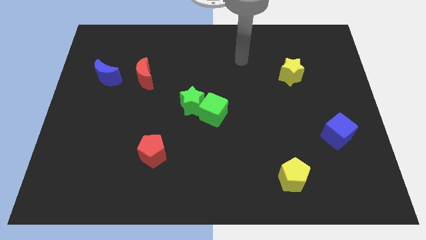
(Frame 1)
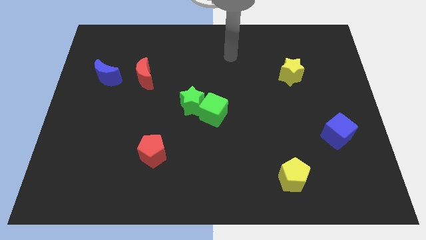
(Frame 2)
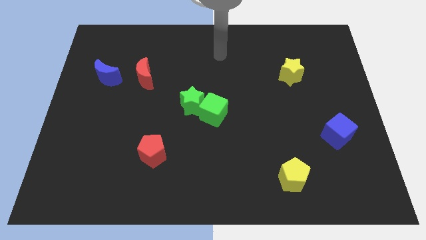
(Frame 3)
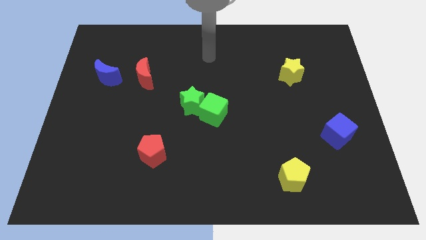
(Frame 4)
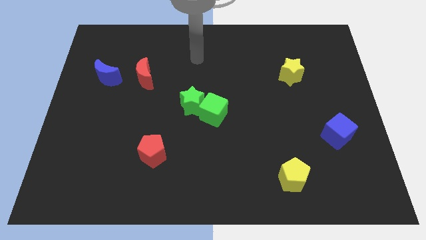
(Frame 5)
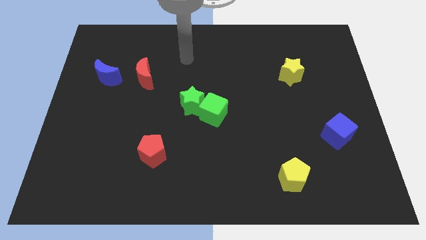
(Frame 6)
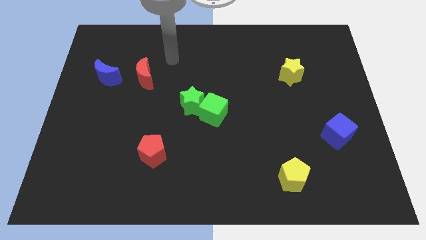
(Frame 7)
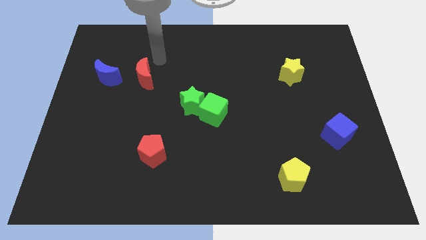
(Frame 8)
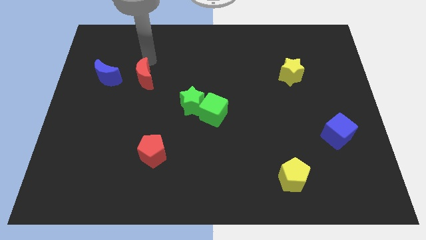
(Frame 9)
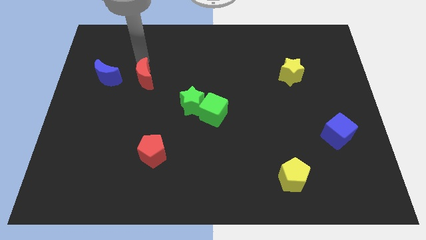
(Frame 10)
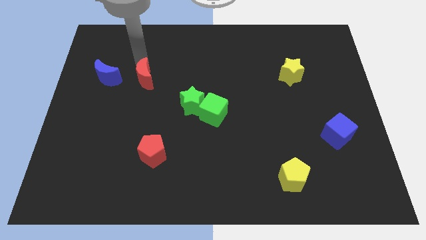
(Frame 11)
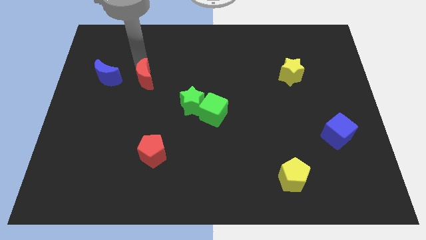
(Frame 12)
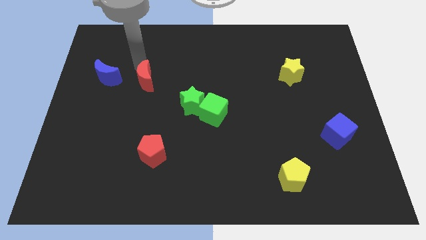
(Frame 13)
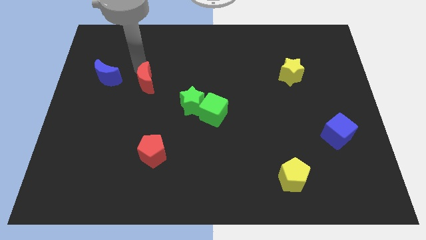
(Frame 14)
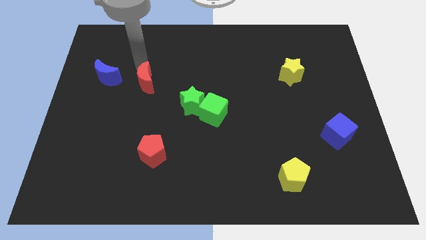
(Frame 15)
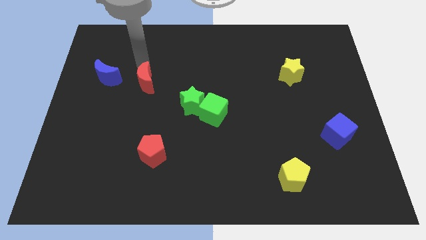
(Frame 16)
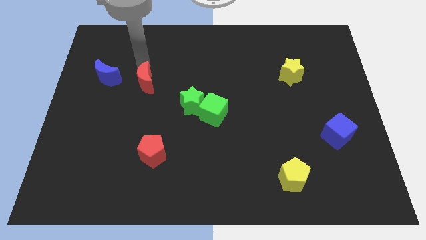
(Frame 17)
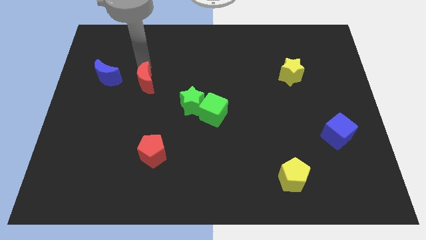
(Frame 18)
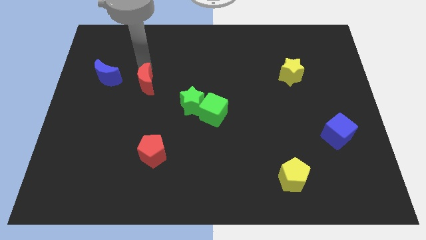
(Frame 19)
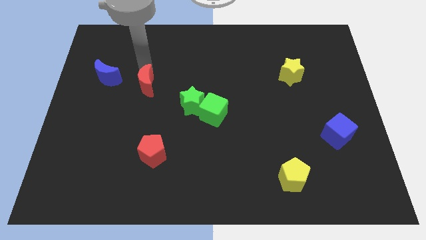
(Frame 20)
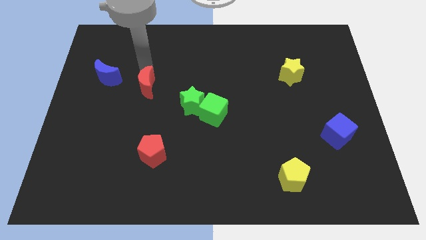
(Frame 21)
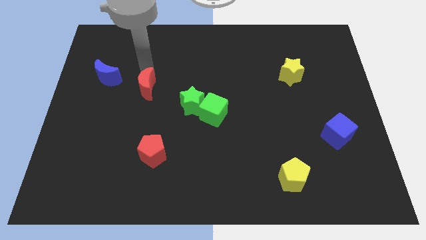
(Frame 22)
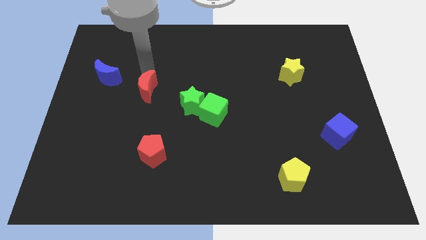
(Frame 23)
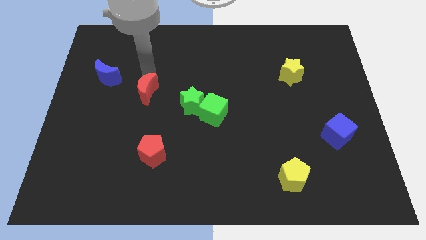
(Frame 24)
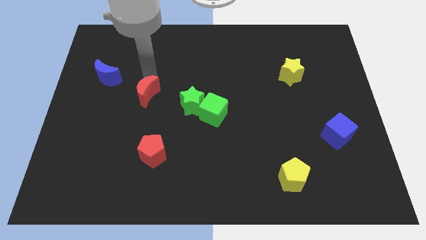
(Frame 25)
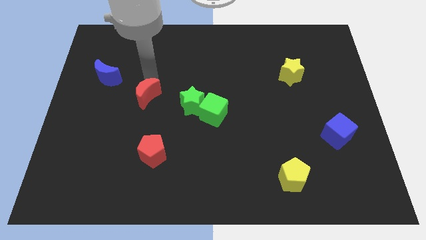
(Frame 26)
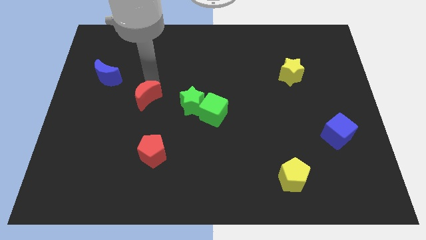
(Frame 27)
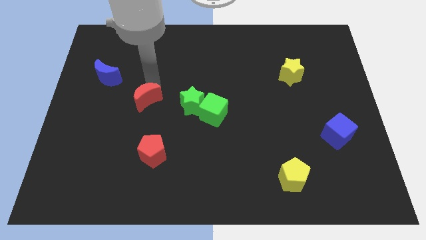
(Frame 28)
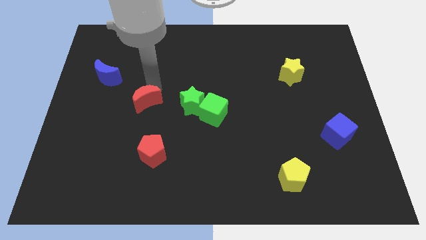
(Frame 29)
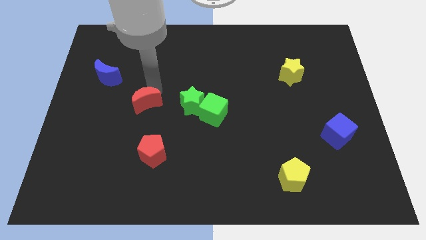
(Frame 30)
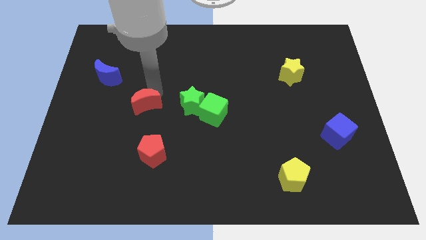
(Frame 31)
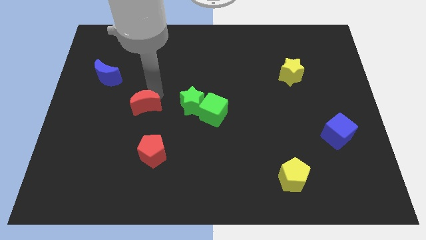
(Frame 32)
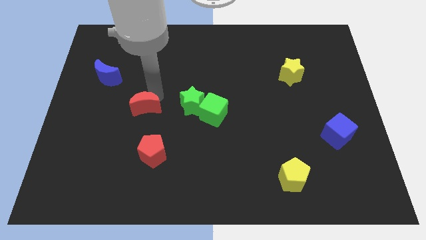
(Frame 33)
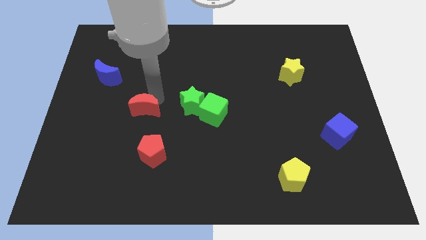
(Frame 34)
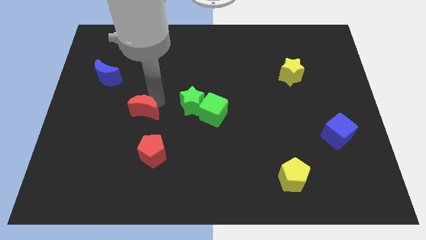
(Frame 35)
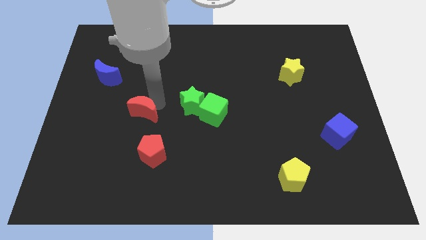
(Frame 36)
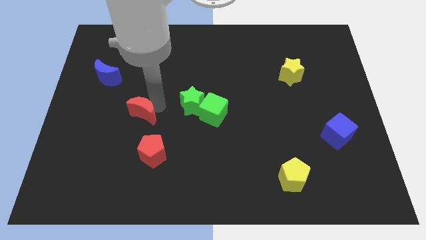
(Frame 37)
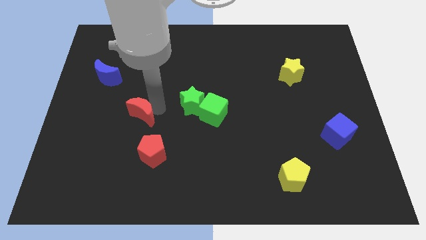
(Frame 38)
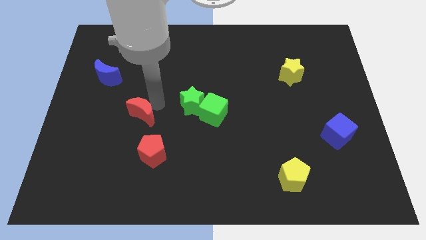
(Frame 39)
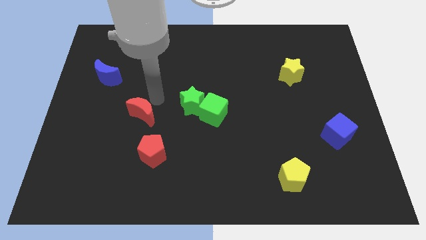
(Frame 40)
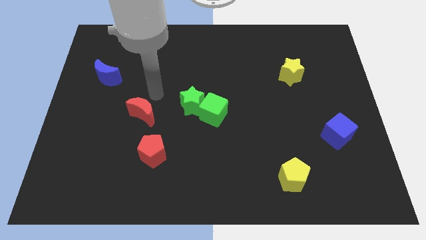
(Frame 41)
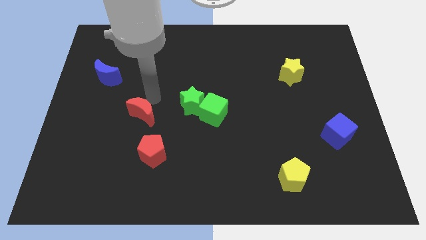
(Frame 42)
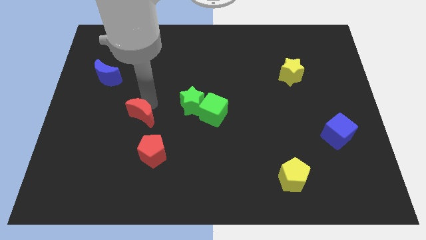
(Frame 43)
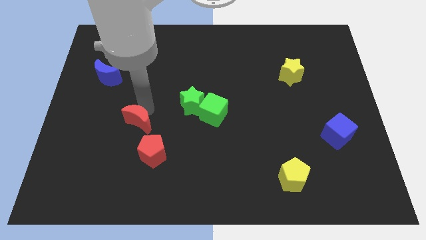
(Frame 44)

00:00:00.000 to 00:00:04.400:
push the red moon diagonally up and to the left of the red pentagon

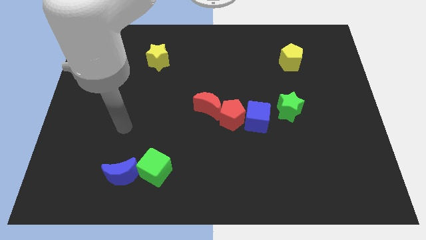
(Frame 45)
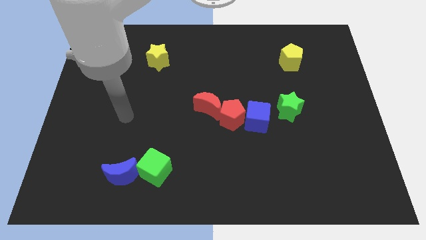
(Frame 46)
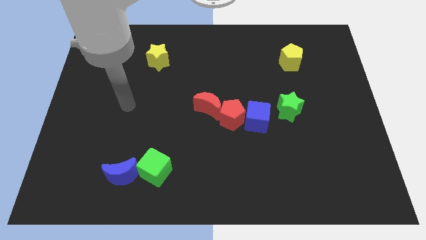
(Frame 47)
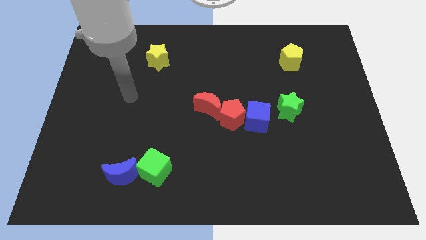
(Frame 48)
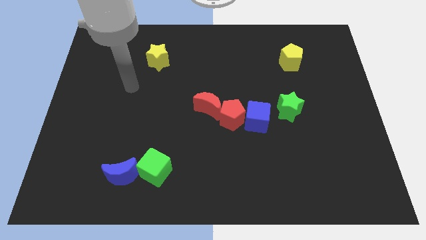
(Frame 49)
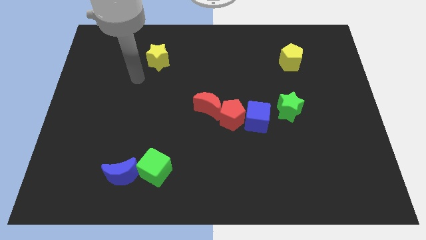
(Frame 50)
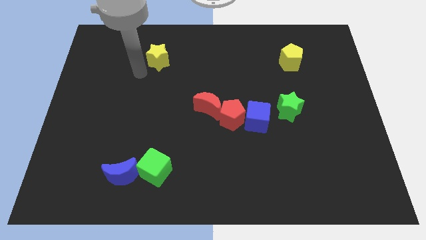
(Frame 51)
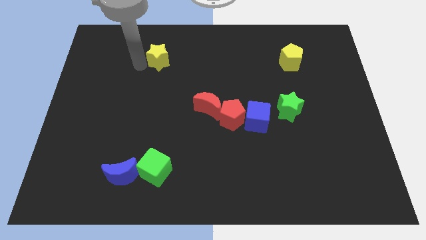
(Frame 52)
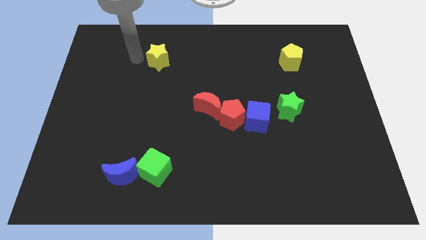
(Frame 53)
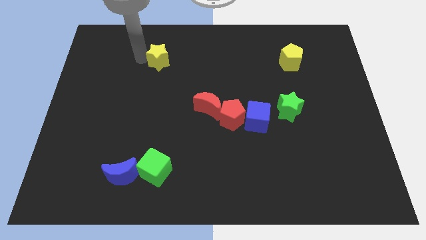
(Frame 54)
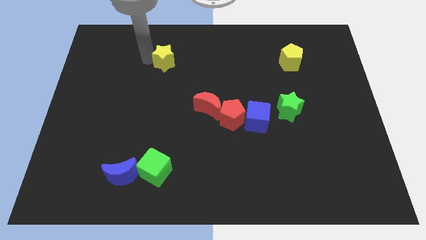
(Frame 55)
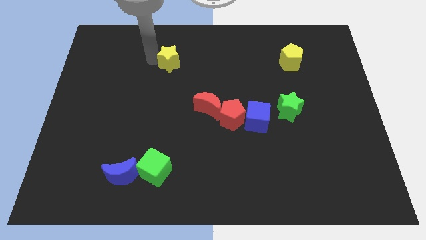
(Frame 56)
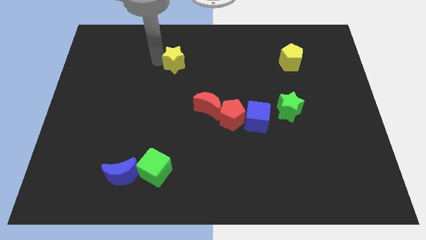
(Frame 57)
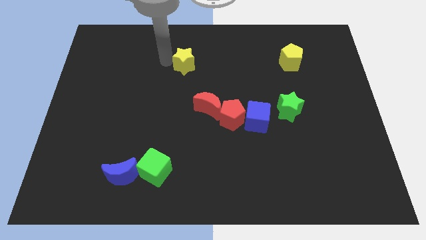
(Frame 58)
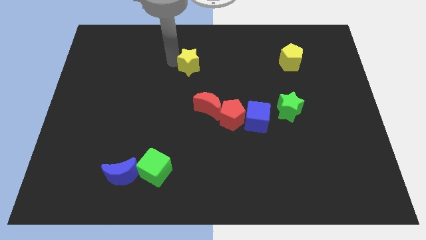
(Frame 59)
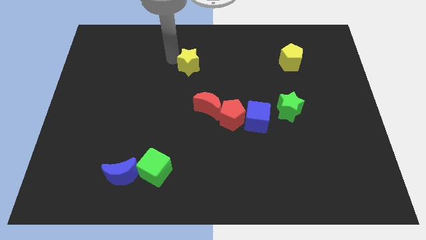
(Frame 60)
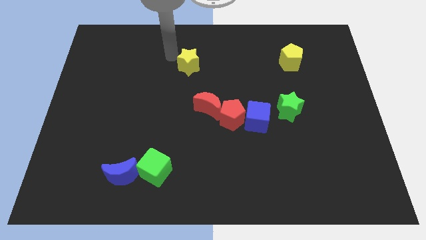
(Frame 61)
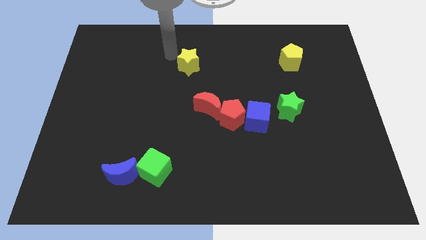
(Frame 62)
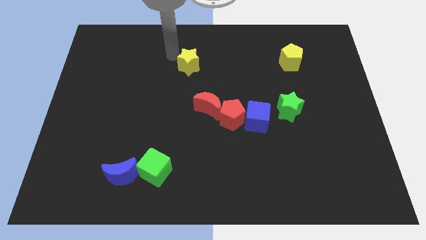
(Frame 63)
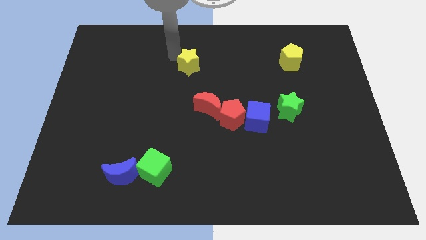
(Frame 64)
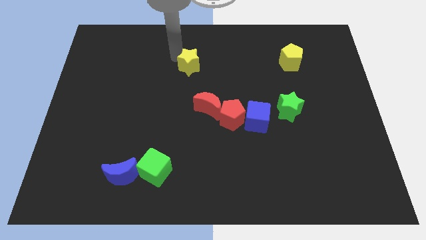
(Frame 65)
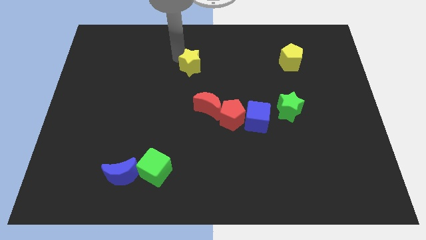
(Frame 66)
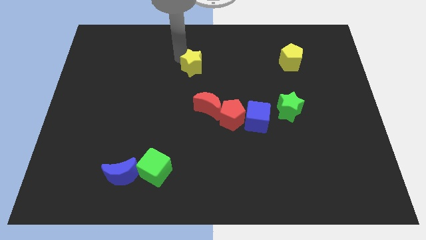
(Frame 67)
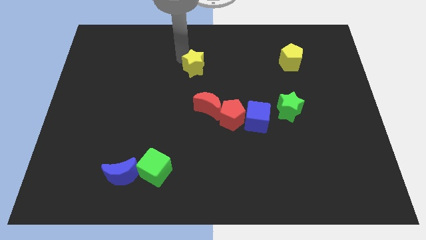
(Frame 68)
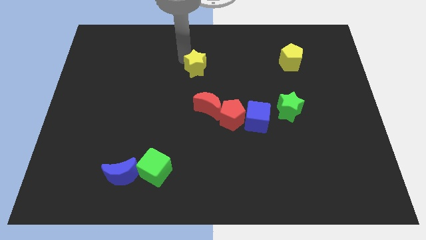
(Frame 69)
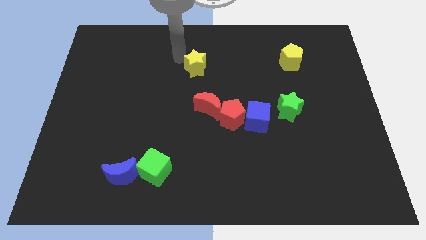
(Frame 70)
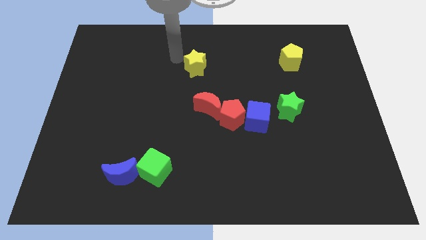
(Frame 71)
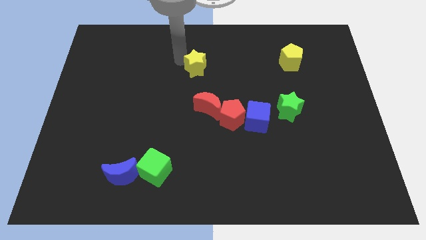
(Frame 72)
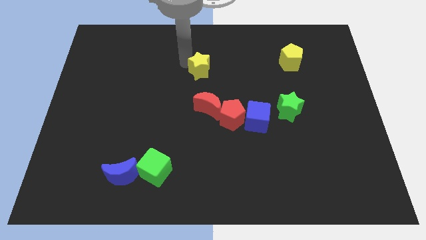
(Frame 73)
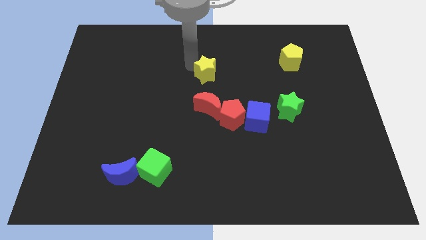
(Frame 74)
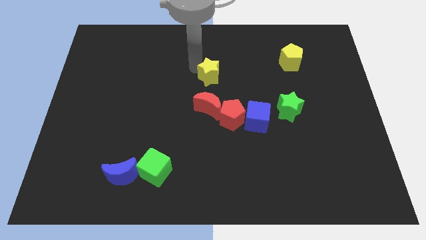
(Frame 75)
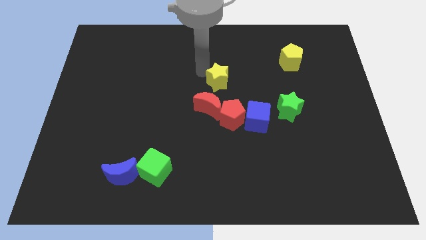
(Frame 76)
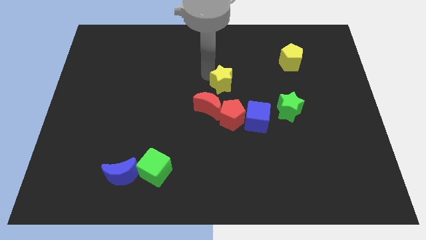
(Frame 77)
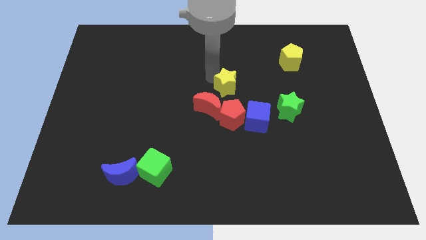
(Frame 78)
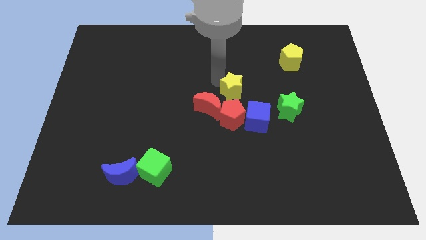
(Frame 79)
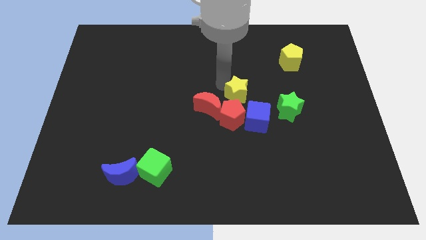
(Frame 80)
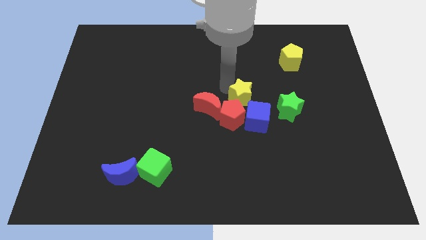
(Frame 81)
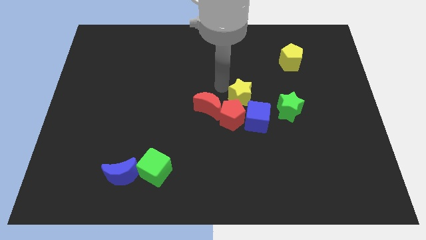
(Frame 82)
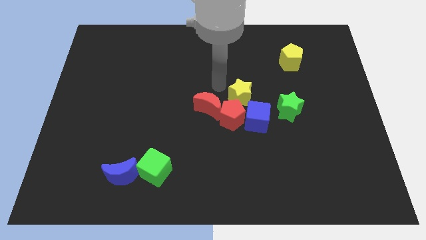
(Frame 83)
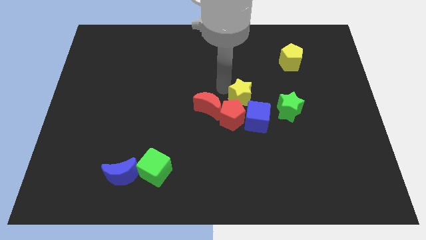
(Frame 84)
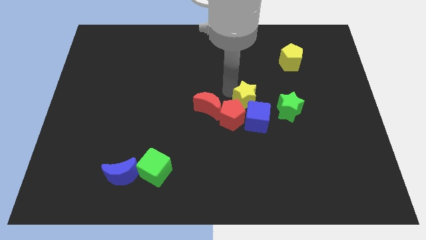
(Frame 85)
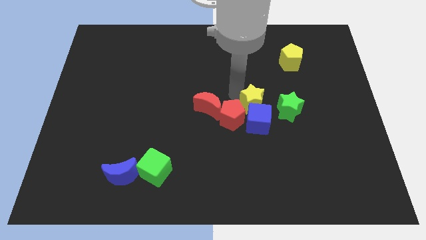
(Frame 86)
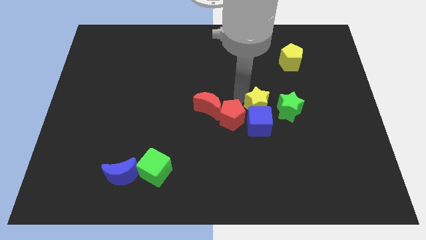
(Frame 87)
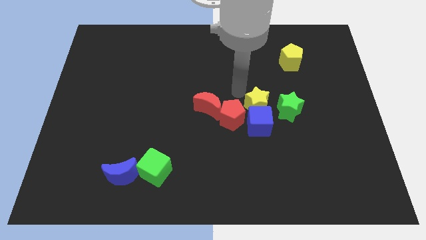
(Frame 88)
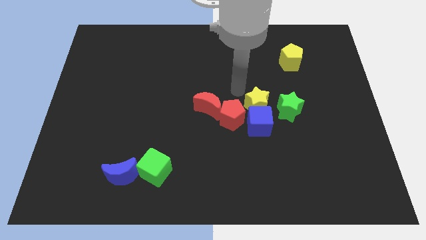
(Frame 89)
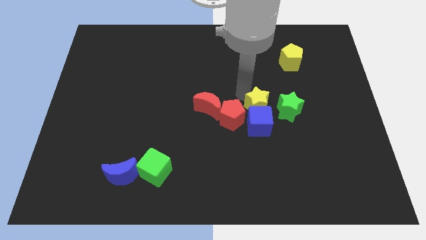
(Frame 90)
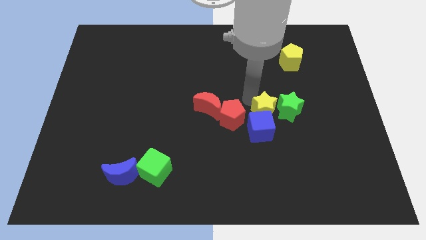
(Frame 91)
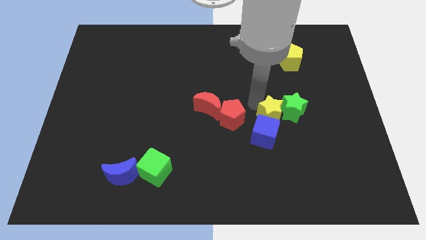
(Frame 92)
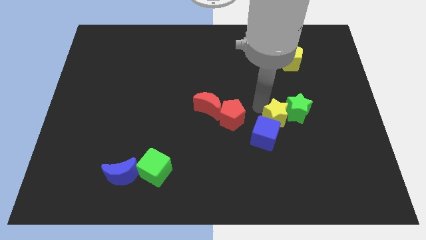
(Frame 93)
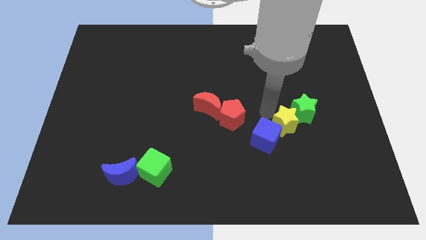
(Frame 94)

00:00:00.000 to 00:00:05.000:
put the yellow star just right of the blue cube
